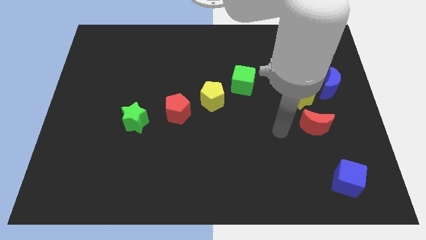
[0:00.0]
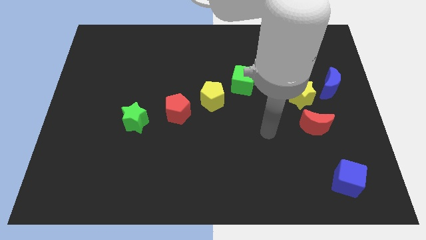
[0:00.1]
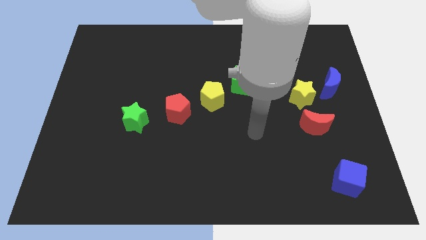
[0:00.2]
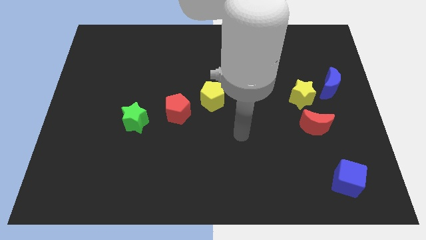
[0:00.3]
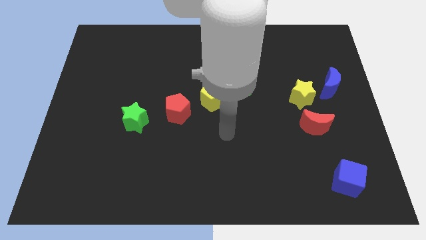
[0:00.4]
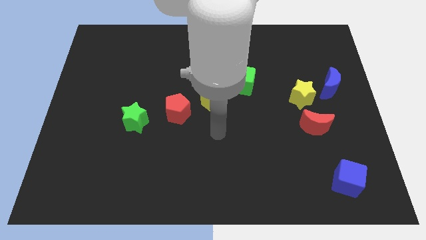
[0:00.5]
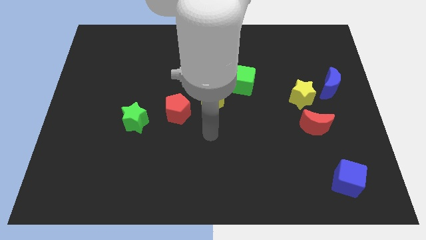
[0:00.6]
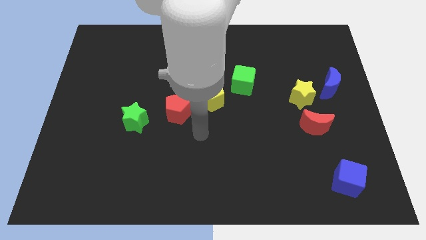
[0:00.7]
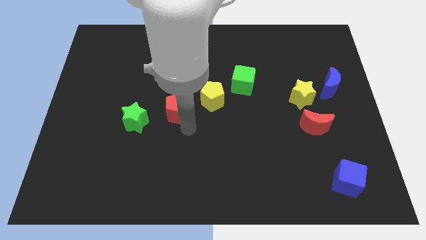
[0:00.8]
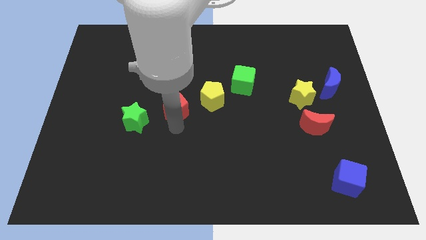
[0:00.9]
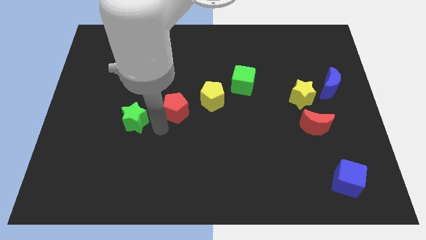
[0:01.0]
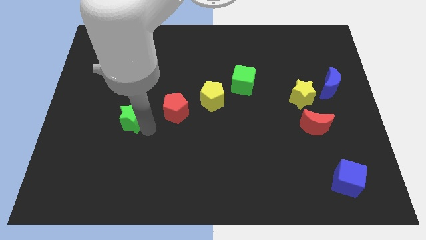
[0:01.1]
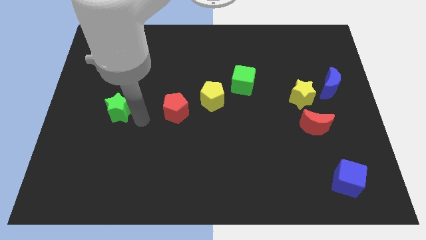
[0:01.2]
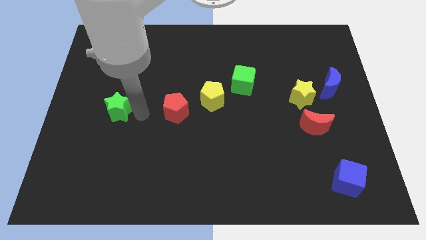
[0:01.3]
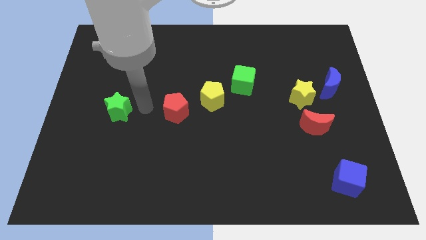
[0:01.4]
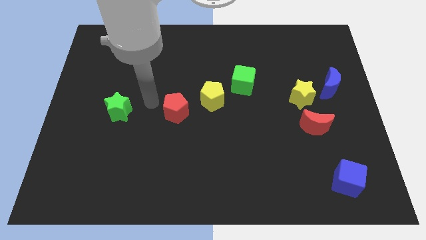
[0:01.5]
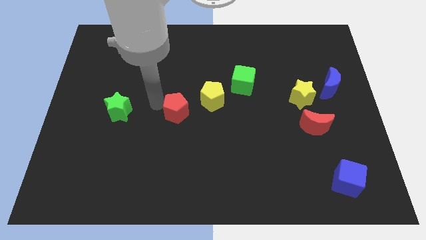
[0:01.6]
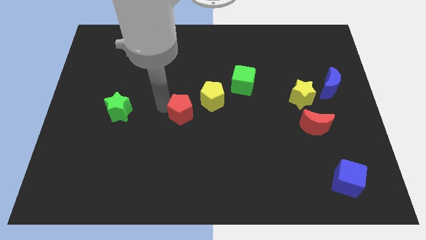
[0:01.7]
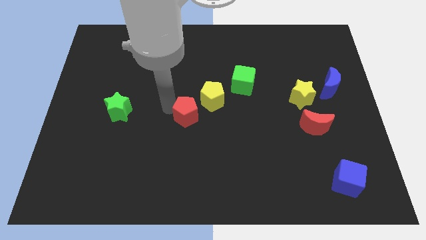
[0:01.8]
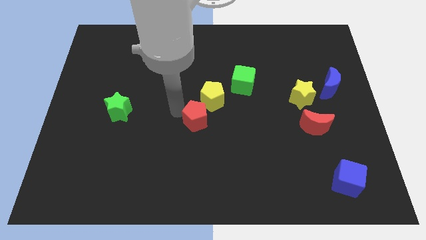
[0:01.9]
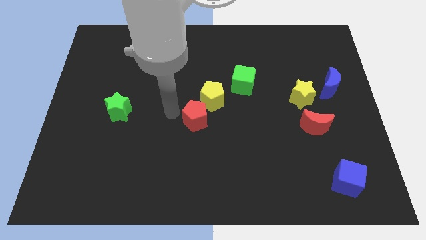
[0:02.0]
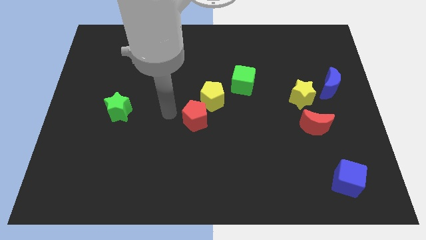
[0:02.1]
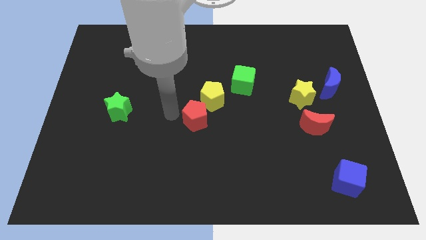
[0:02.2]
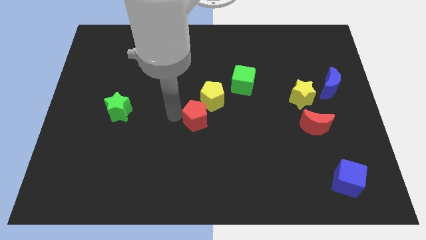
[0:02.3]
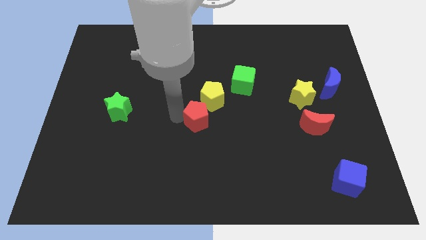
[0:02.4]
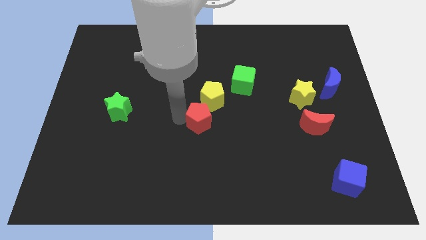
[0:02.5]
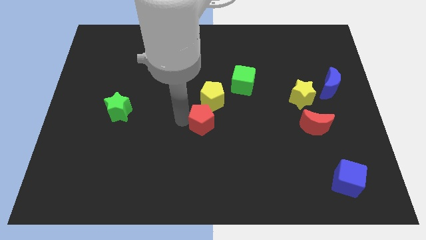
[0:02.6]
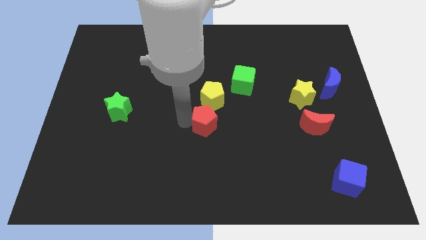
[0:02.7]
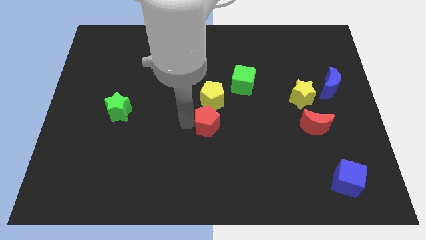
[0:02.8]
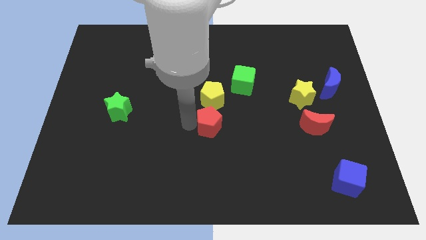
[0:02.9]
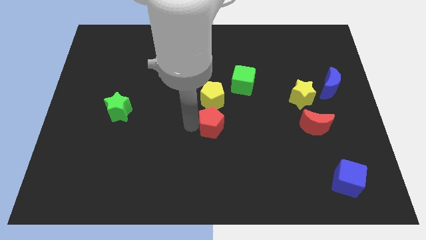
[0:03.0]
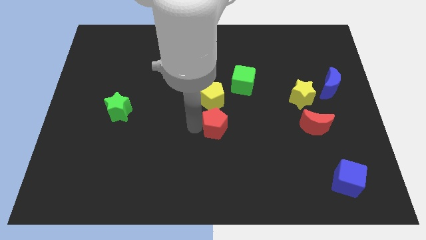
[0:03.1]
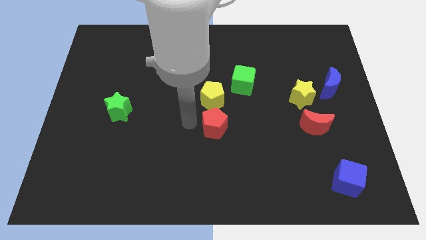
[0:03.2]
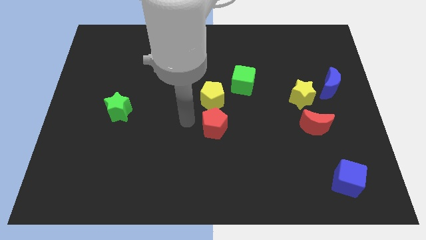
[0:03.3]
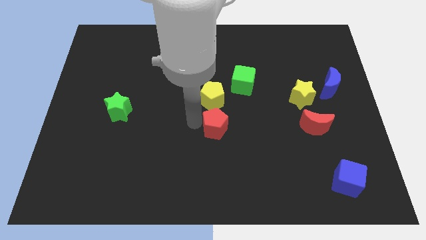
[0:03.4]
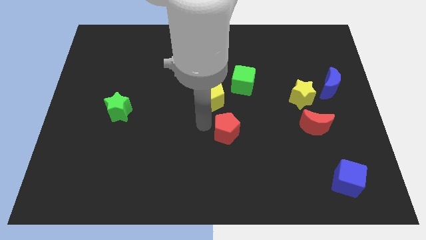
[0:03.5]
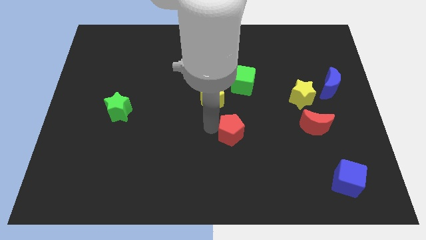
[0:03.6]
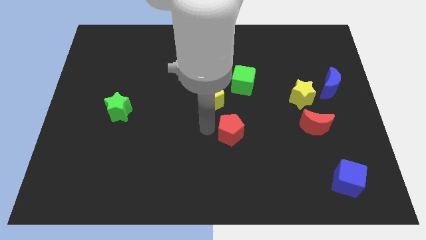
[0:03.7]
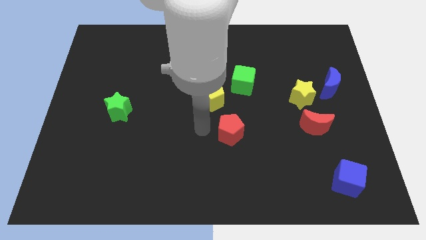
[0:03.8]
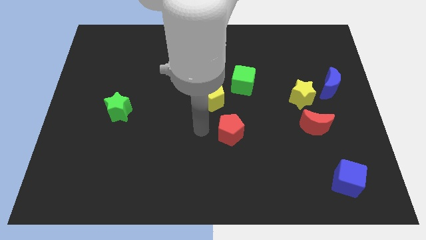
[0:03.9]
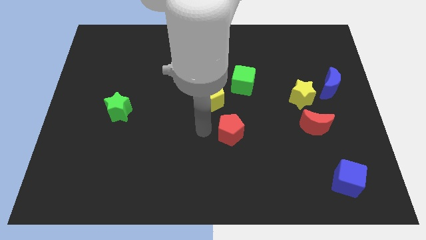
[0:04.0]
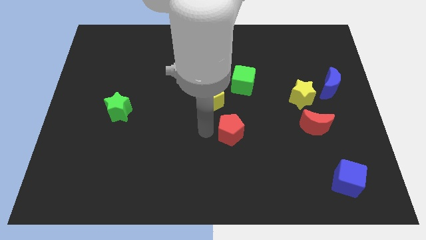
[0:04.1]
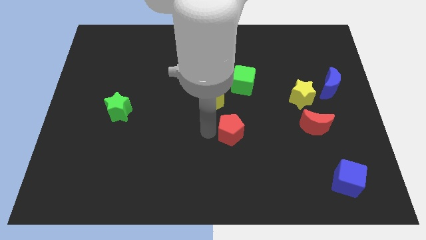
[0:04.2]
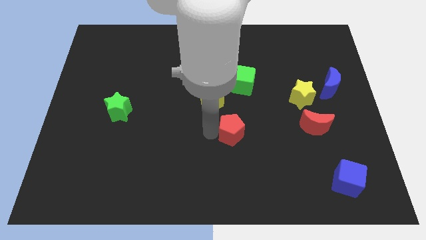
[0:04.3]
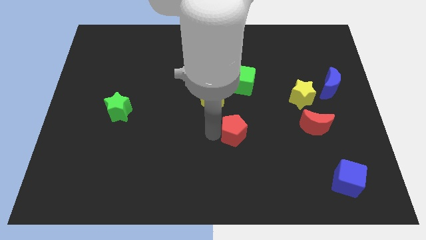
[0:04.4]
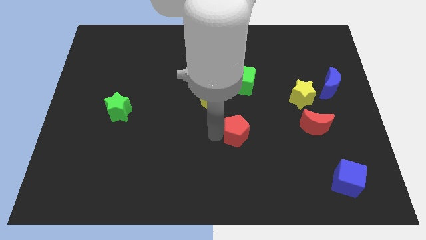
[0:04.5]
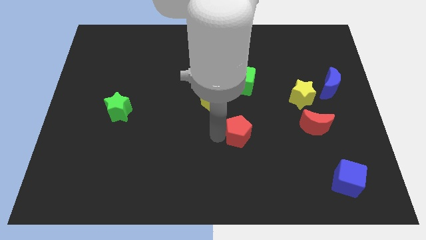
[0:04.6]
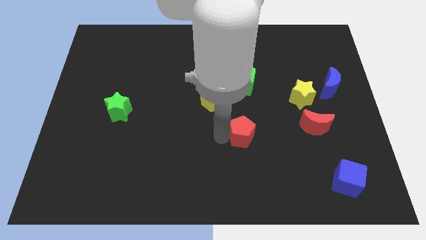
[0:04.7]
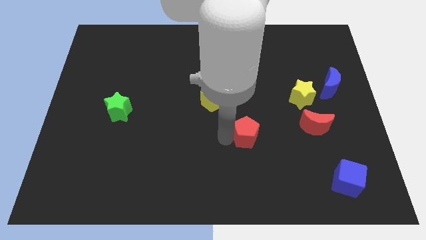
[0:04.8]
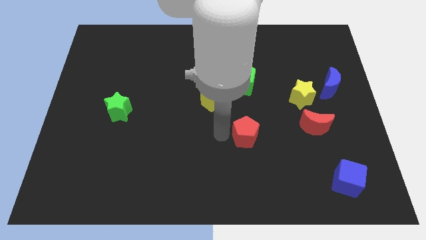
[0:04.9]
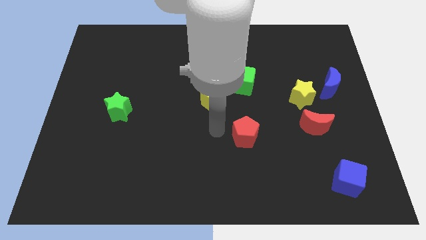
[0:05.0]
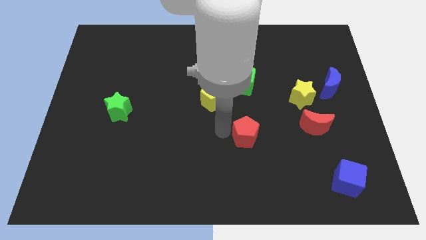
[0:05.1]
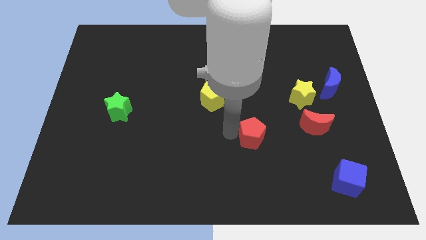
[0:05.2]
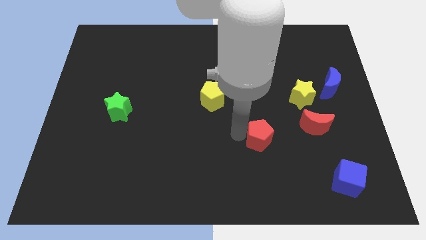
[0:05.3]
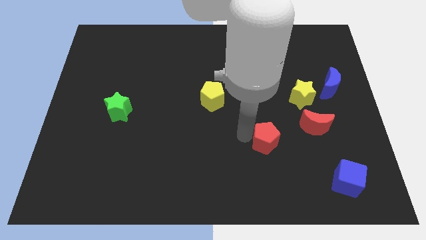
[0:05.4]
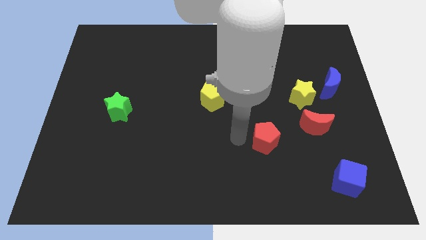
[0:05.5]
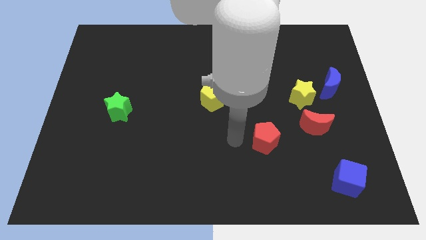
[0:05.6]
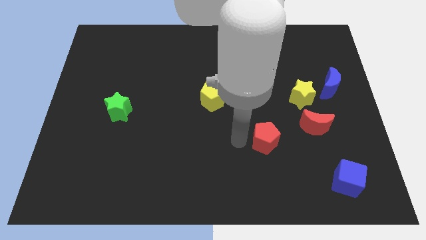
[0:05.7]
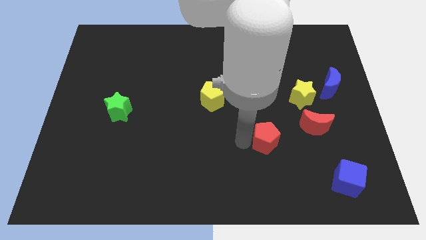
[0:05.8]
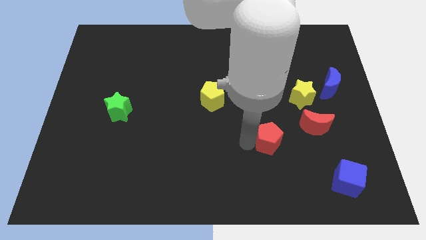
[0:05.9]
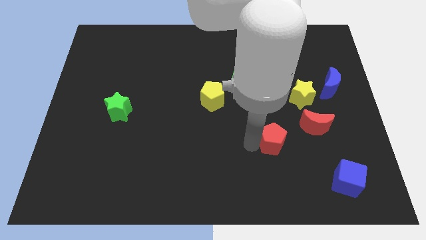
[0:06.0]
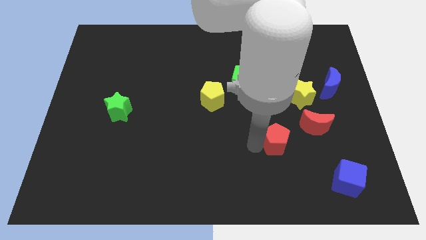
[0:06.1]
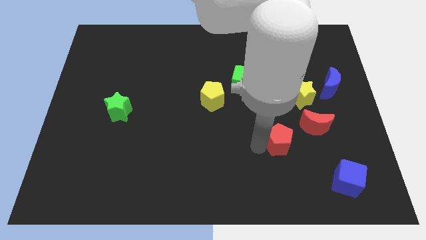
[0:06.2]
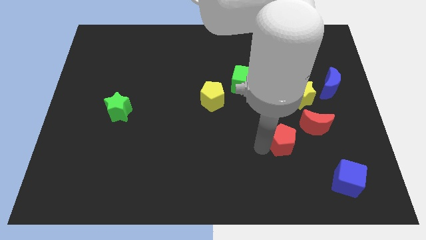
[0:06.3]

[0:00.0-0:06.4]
move the red pentagon right

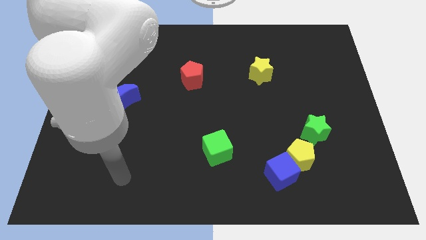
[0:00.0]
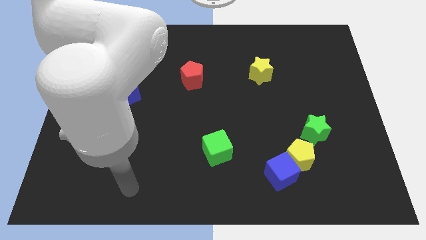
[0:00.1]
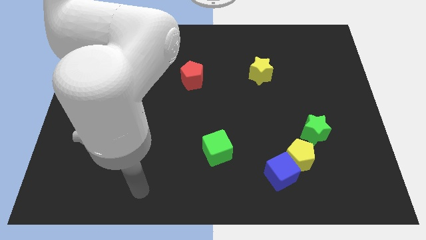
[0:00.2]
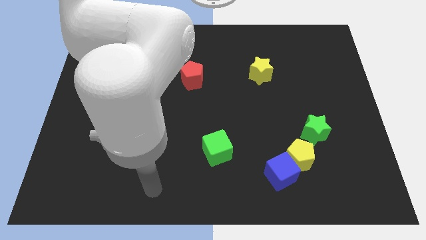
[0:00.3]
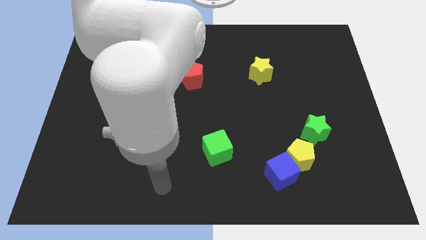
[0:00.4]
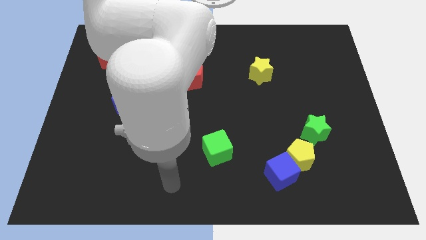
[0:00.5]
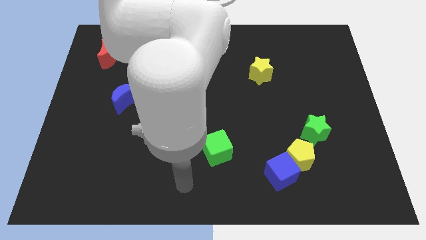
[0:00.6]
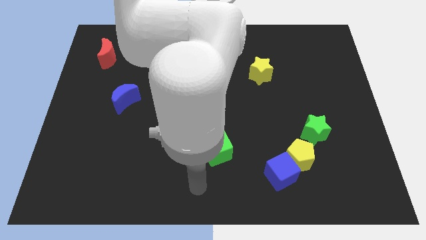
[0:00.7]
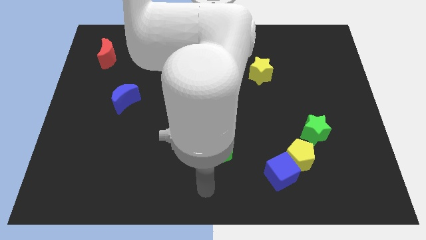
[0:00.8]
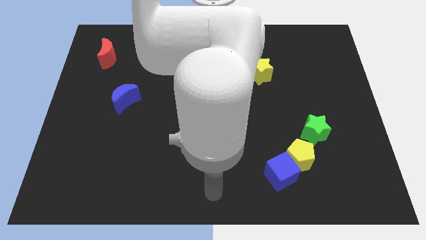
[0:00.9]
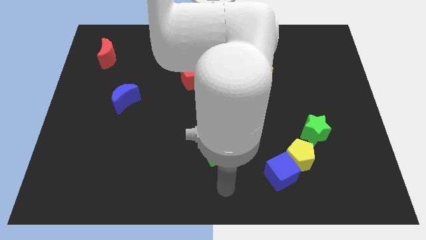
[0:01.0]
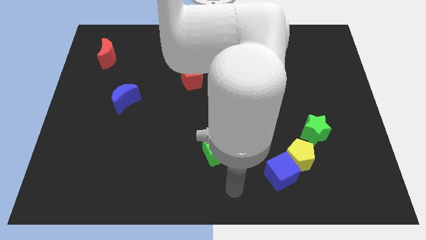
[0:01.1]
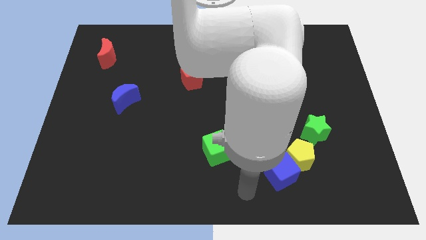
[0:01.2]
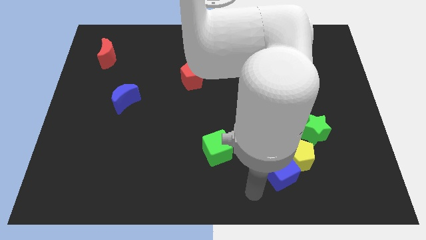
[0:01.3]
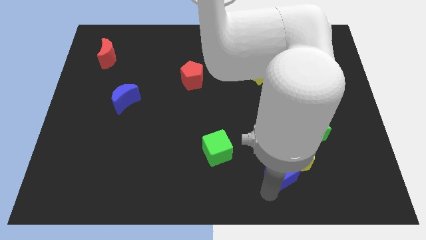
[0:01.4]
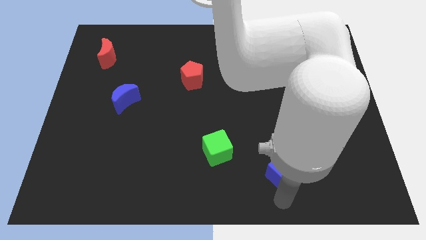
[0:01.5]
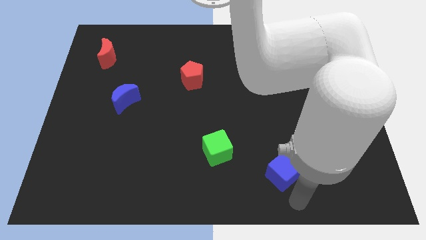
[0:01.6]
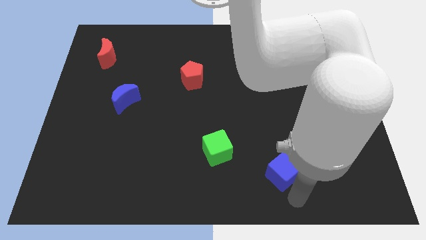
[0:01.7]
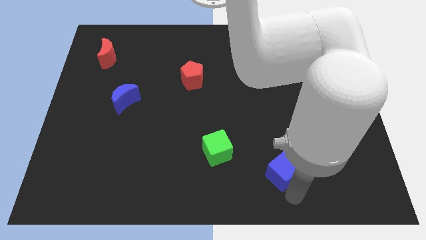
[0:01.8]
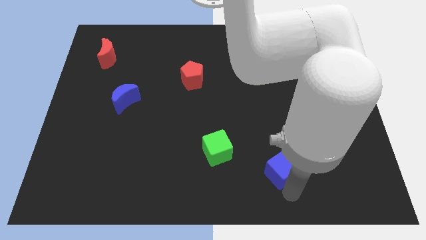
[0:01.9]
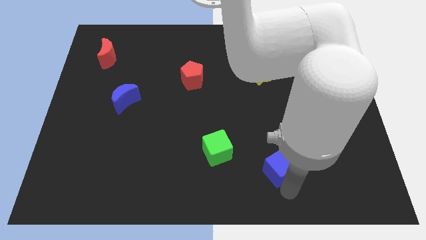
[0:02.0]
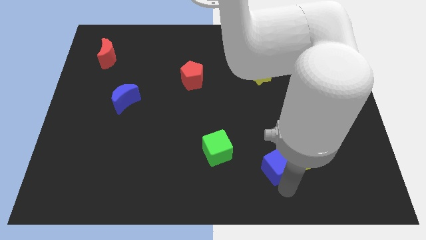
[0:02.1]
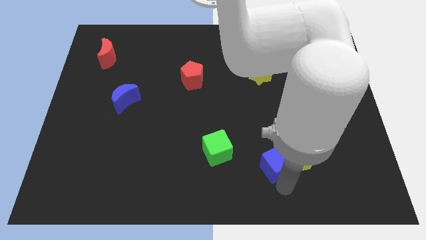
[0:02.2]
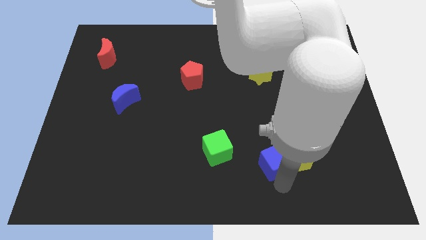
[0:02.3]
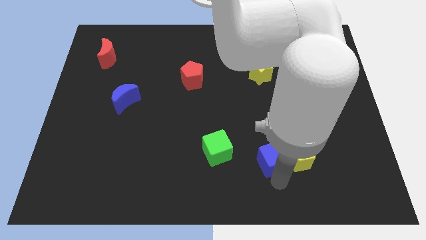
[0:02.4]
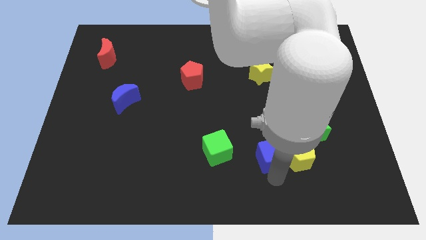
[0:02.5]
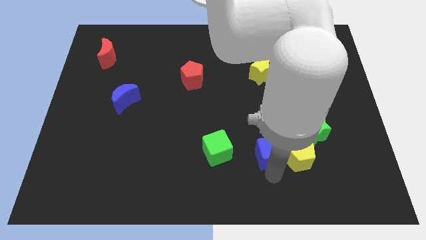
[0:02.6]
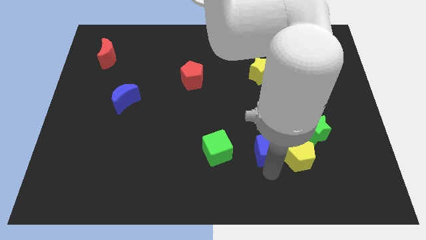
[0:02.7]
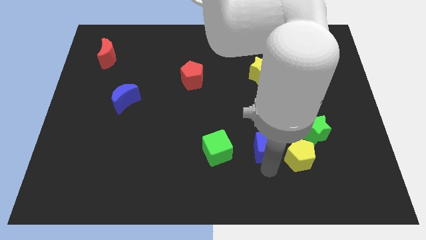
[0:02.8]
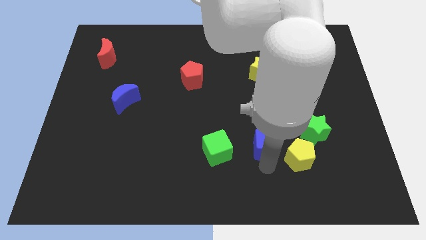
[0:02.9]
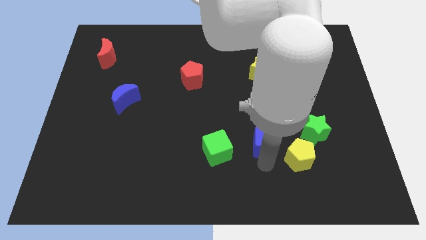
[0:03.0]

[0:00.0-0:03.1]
slightly push the blue cube up
